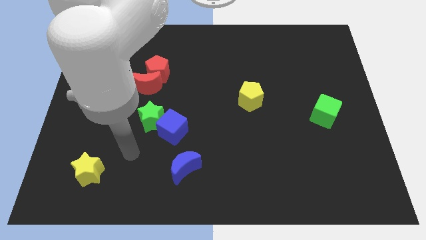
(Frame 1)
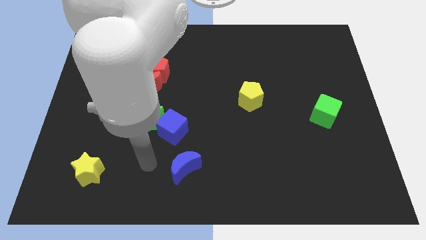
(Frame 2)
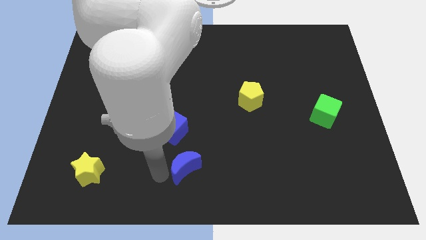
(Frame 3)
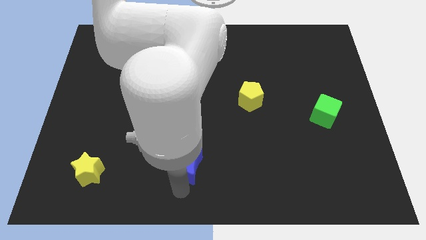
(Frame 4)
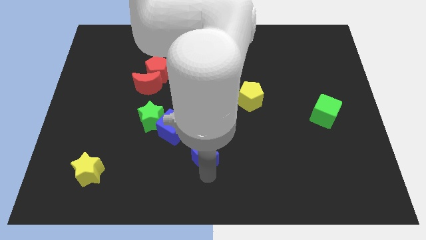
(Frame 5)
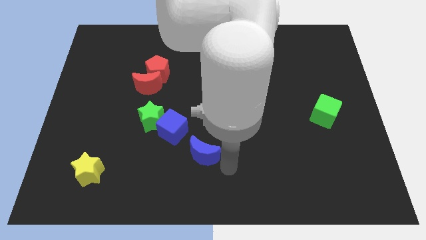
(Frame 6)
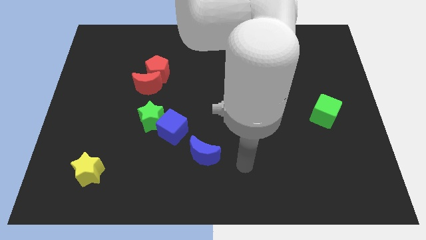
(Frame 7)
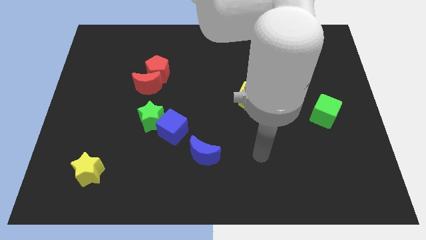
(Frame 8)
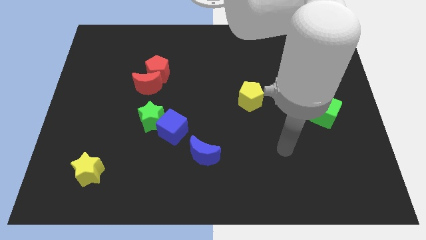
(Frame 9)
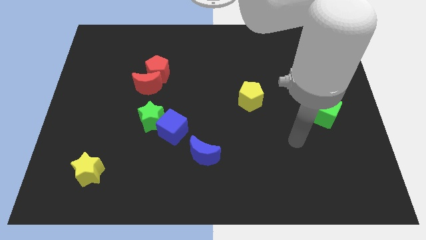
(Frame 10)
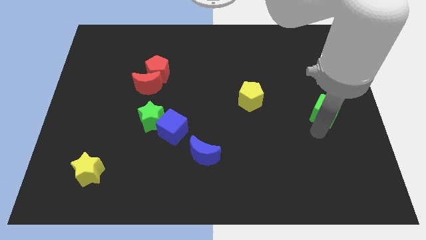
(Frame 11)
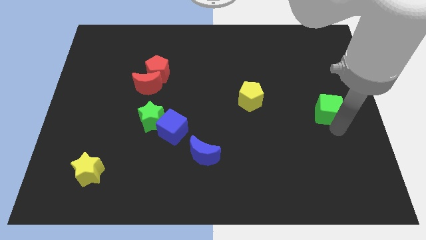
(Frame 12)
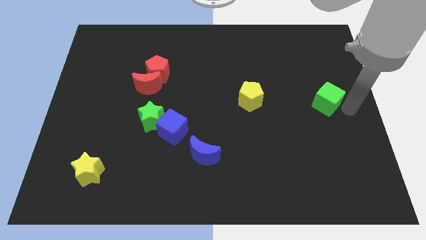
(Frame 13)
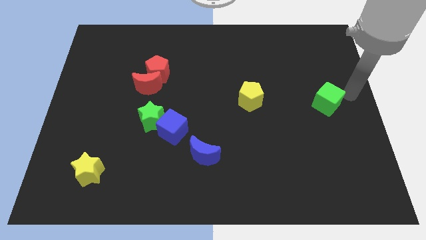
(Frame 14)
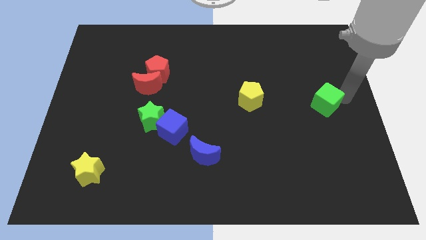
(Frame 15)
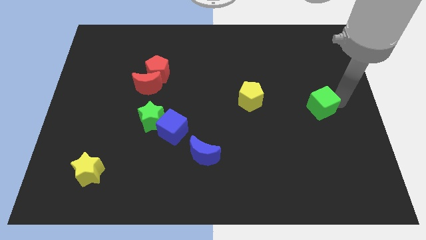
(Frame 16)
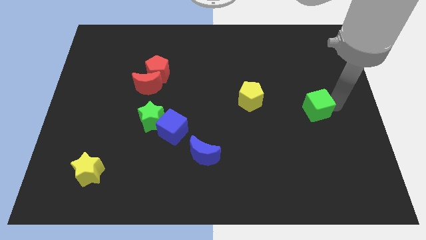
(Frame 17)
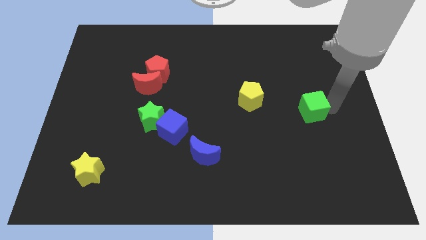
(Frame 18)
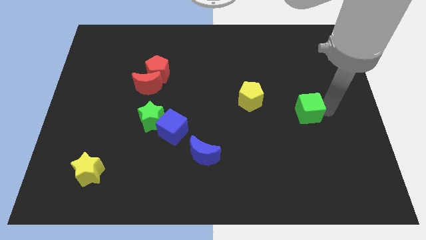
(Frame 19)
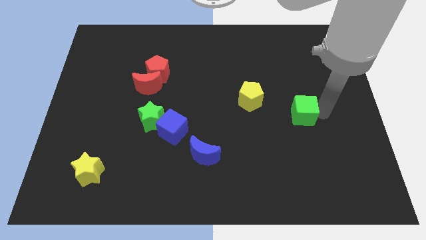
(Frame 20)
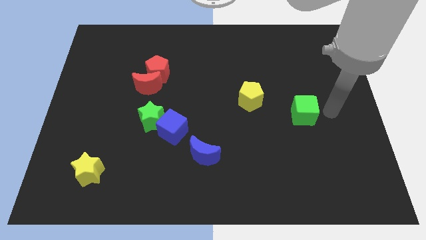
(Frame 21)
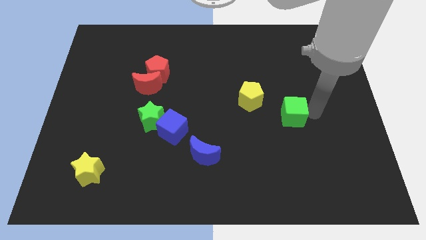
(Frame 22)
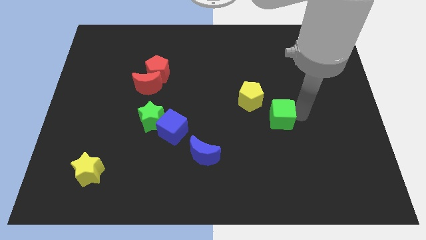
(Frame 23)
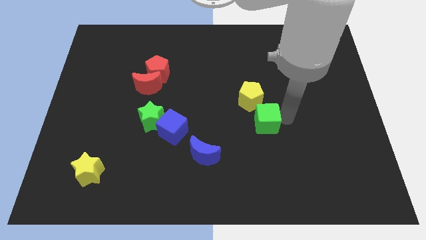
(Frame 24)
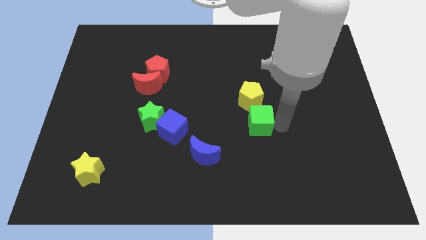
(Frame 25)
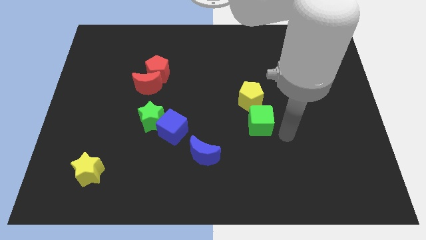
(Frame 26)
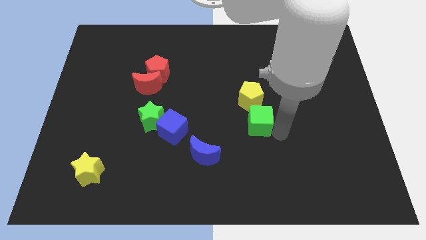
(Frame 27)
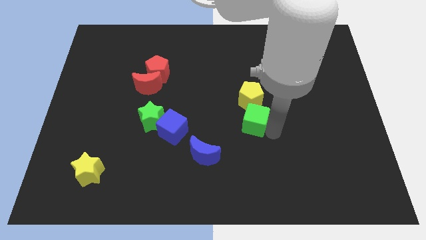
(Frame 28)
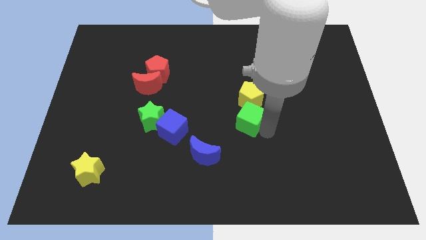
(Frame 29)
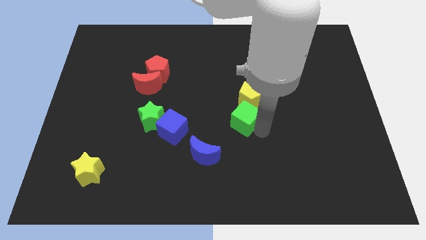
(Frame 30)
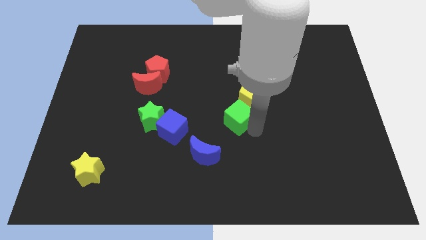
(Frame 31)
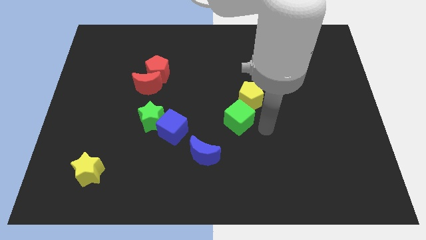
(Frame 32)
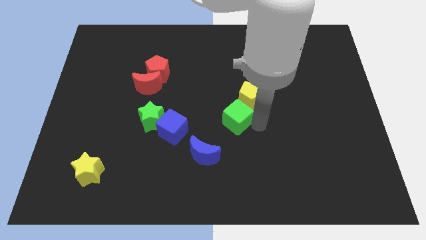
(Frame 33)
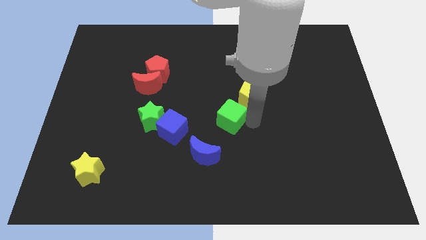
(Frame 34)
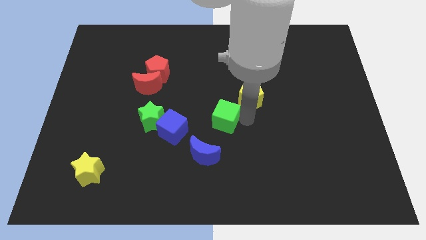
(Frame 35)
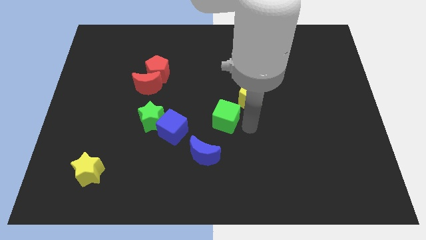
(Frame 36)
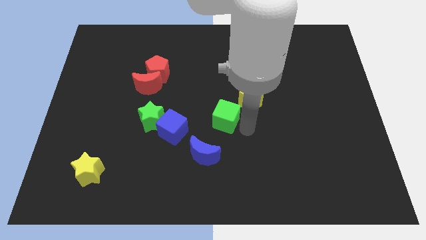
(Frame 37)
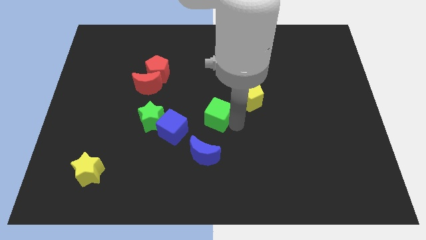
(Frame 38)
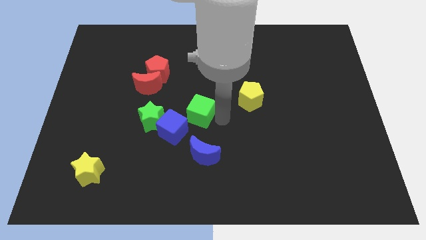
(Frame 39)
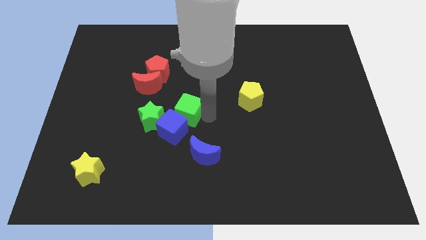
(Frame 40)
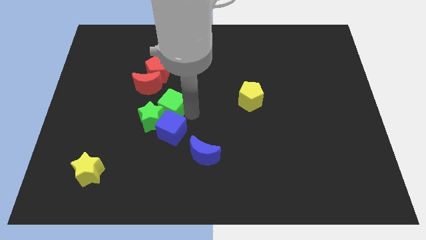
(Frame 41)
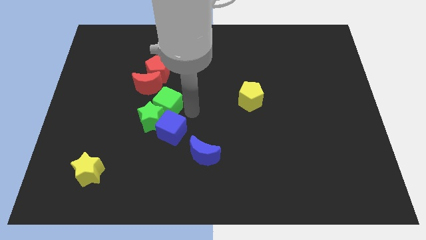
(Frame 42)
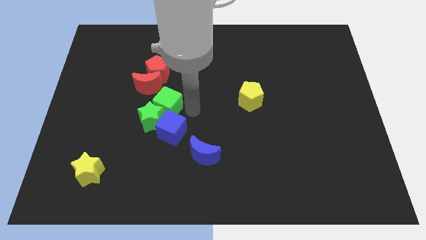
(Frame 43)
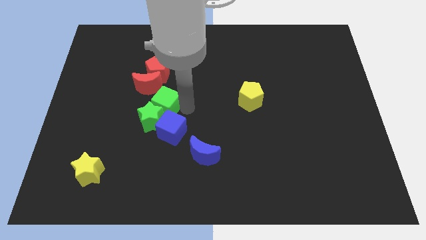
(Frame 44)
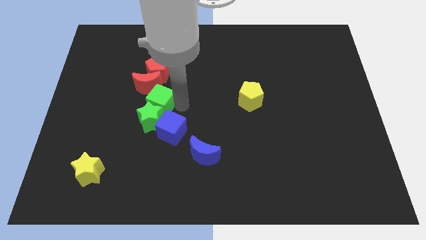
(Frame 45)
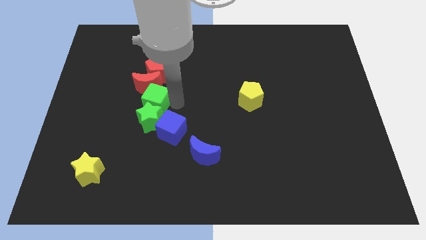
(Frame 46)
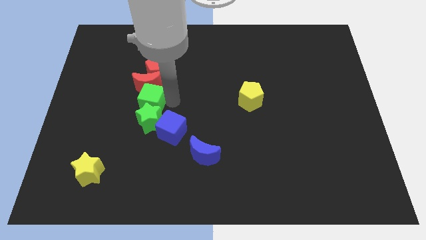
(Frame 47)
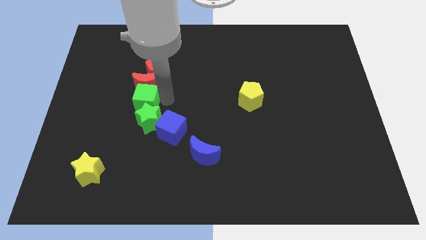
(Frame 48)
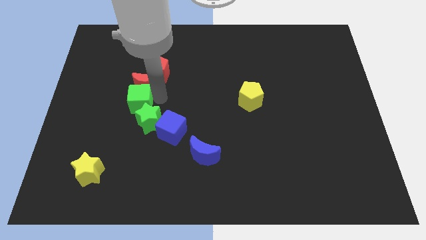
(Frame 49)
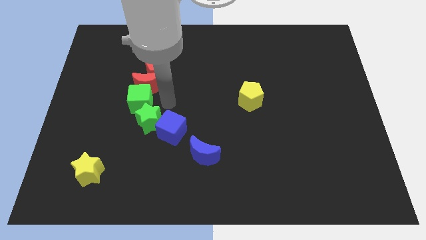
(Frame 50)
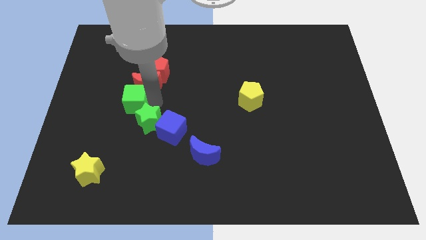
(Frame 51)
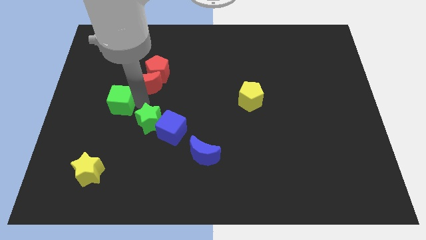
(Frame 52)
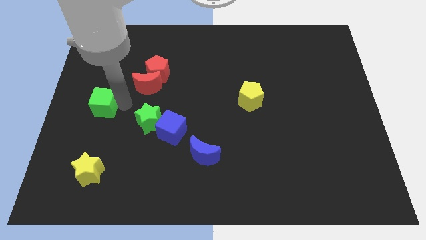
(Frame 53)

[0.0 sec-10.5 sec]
move the green cube to the left side
